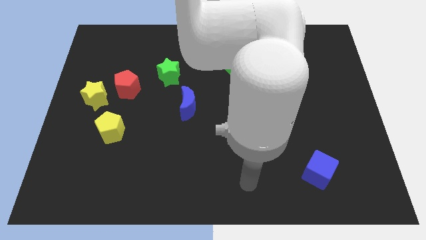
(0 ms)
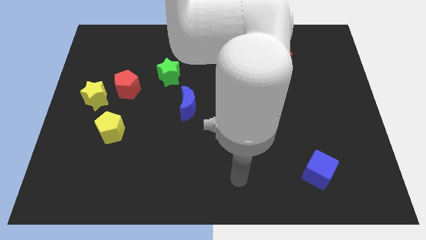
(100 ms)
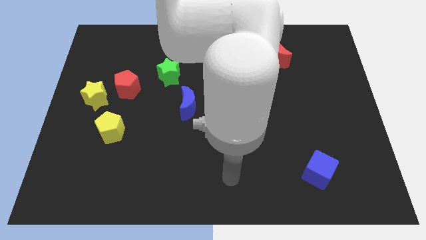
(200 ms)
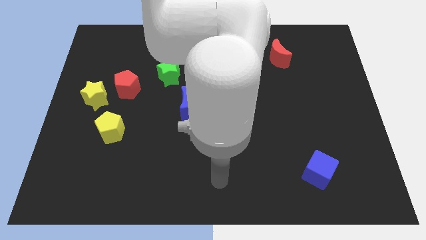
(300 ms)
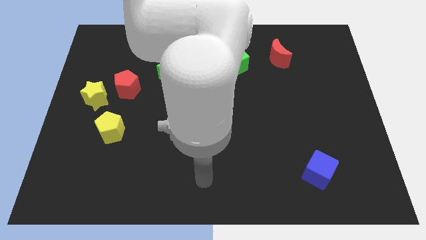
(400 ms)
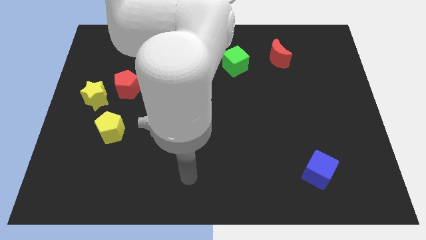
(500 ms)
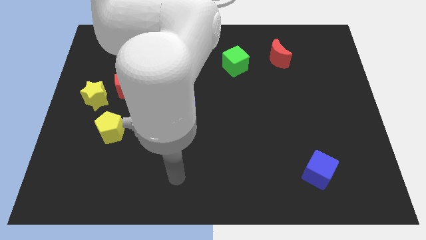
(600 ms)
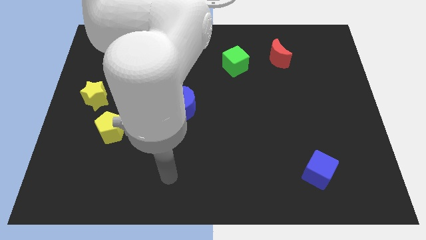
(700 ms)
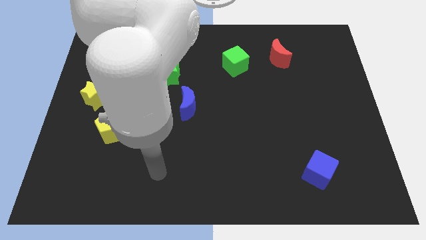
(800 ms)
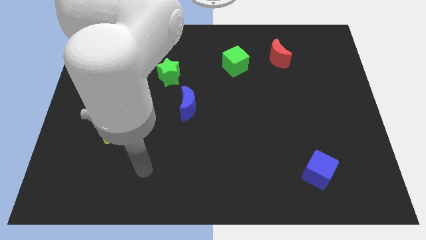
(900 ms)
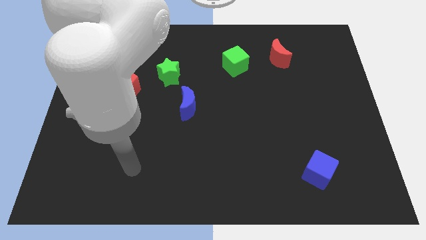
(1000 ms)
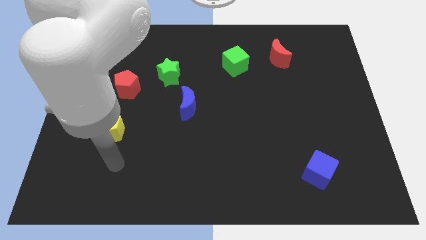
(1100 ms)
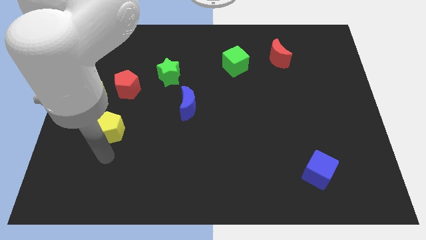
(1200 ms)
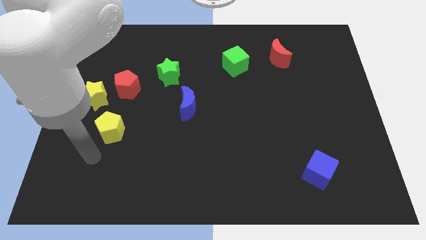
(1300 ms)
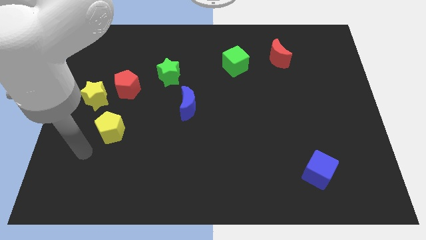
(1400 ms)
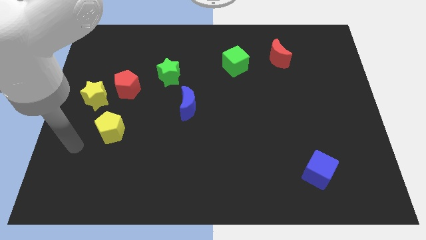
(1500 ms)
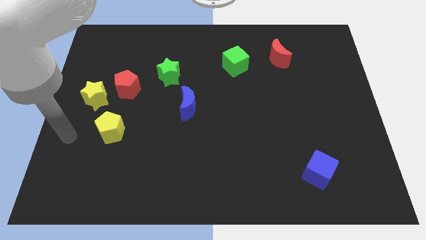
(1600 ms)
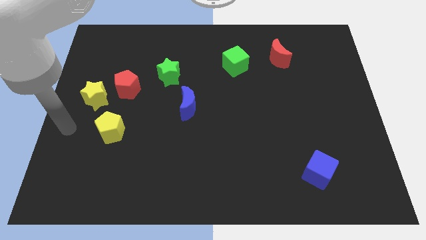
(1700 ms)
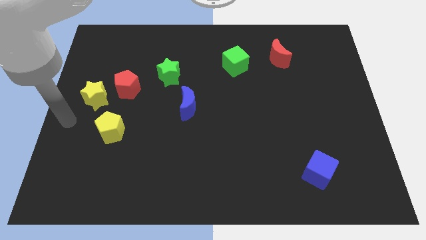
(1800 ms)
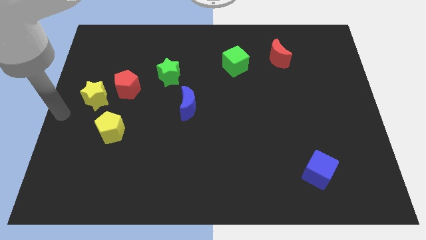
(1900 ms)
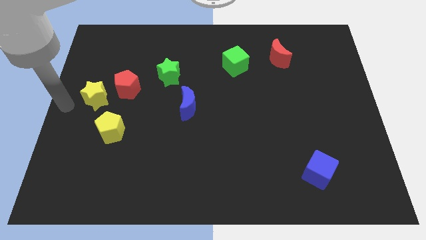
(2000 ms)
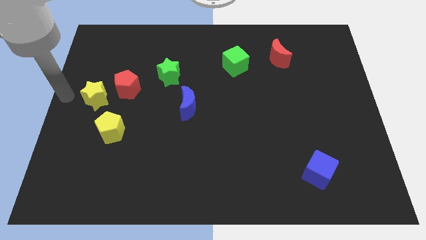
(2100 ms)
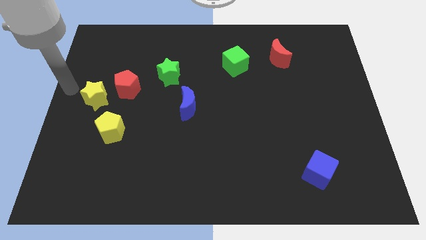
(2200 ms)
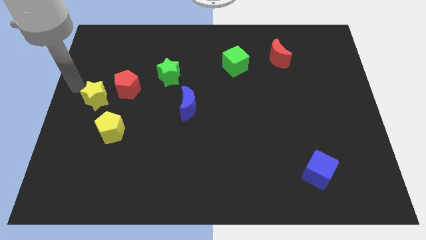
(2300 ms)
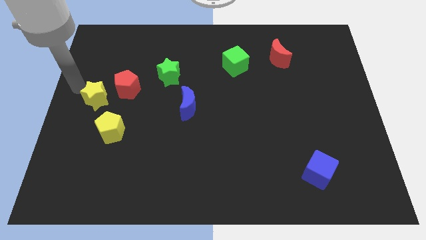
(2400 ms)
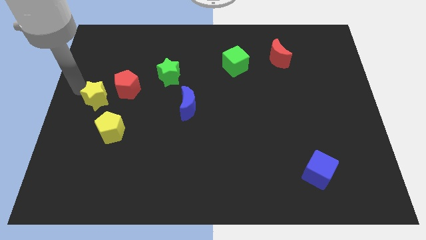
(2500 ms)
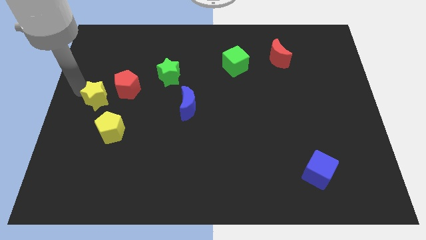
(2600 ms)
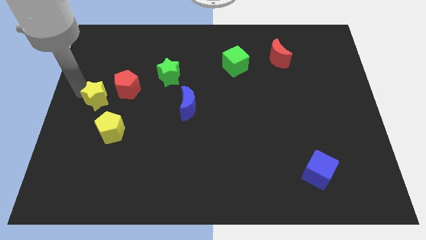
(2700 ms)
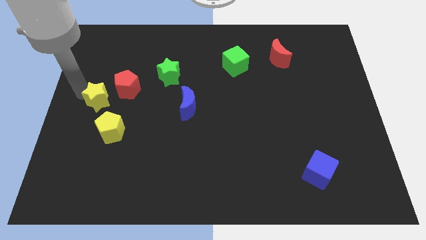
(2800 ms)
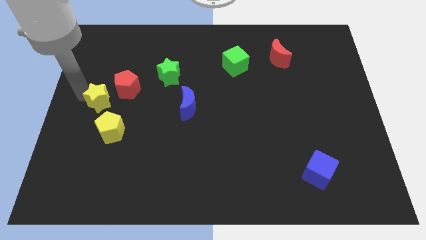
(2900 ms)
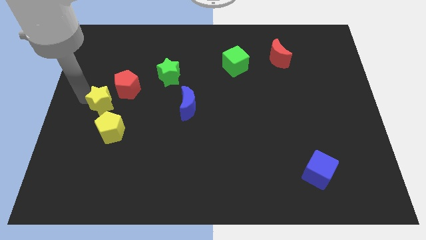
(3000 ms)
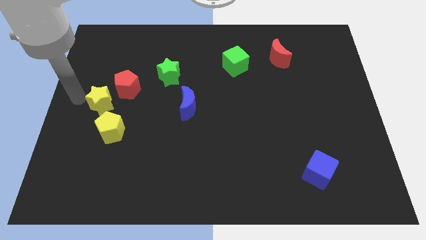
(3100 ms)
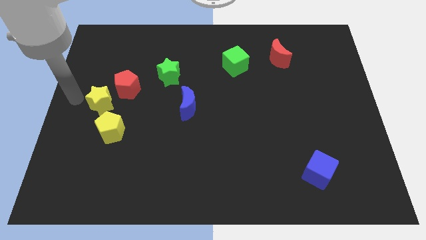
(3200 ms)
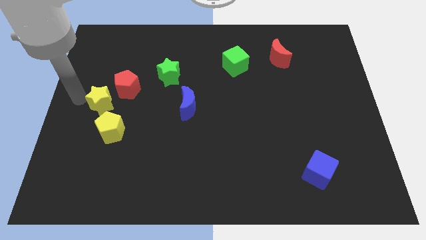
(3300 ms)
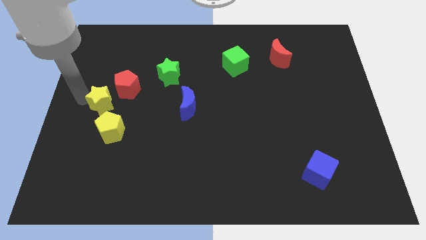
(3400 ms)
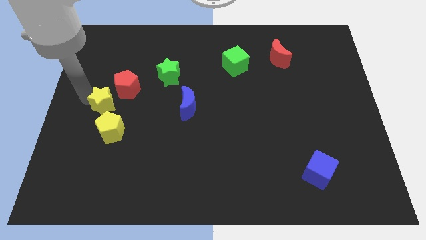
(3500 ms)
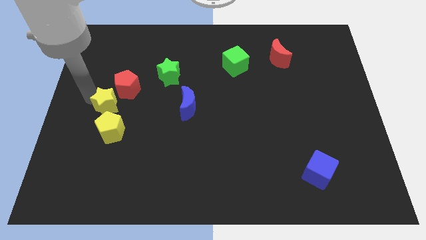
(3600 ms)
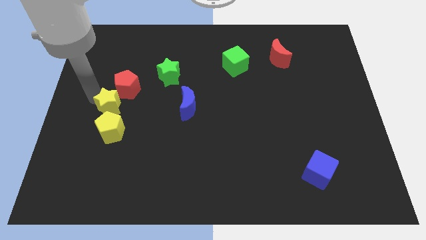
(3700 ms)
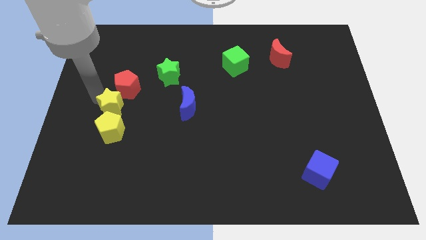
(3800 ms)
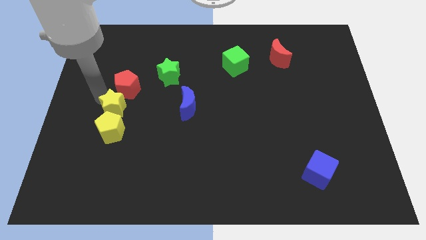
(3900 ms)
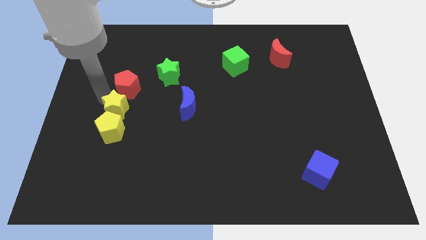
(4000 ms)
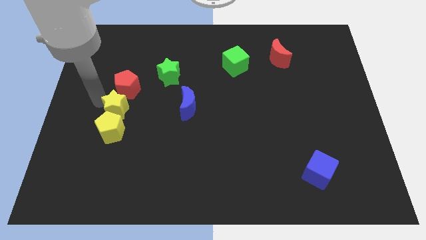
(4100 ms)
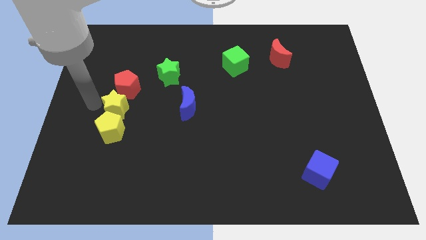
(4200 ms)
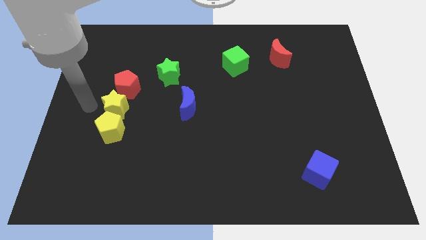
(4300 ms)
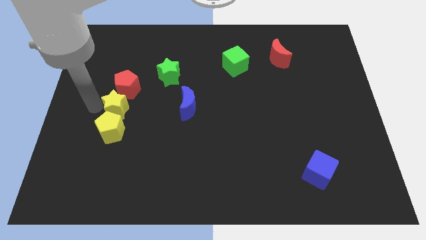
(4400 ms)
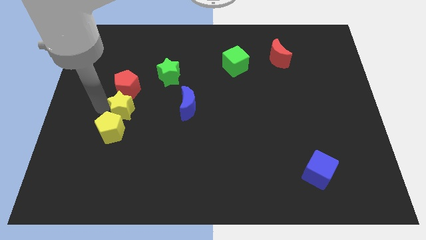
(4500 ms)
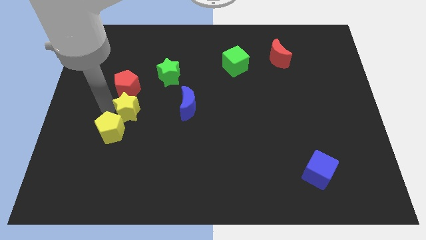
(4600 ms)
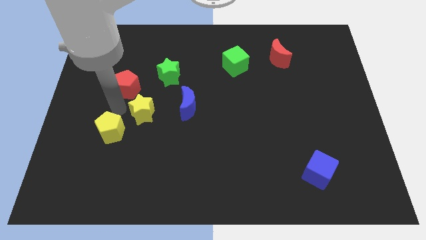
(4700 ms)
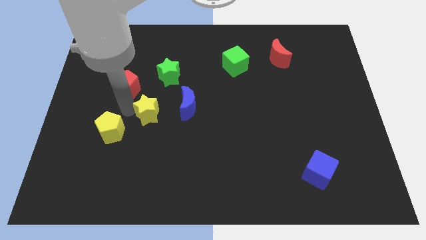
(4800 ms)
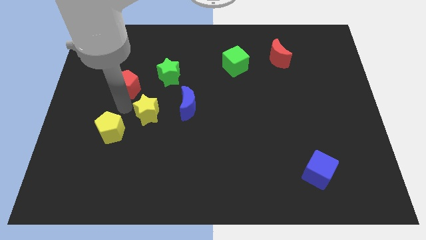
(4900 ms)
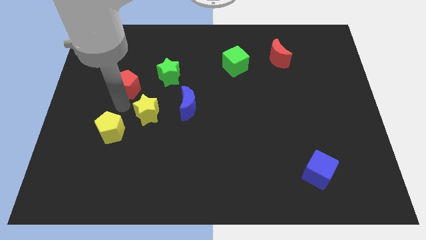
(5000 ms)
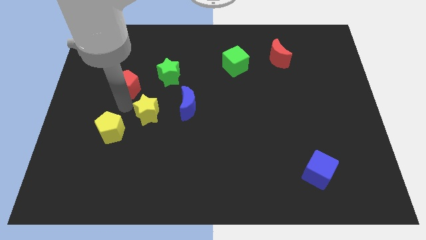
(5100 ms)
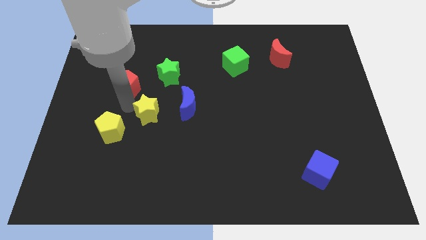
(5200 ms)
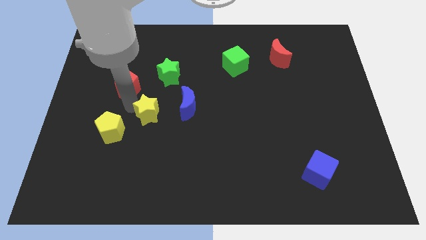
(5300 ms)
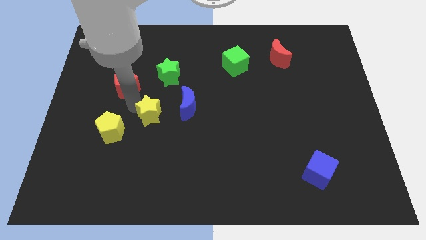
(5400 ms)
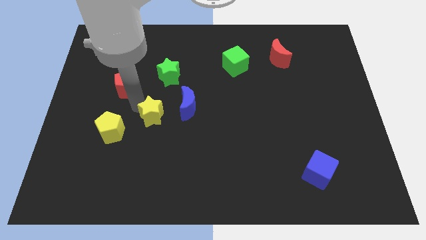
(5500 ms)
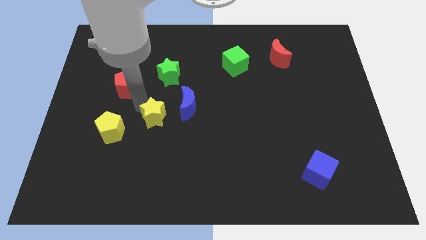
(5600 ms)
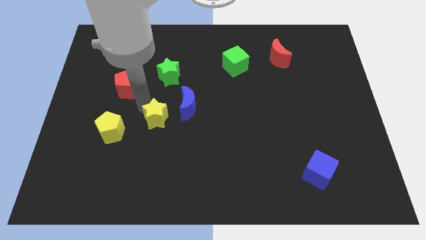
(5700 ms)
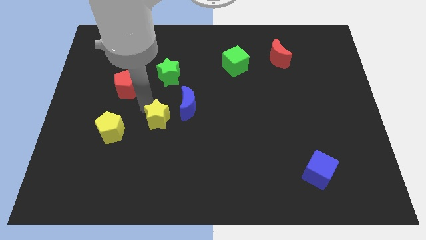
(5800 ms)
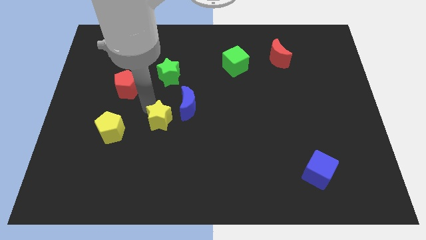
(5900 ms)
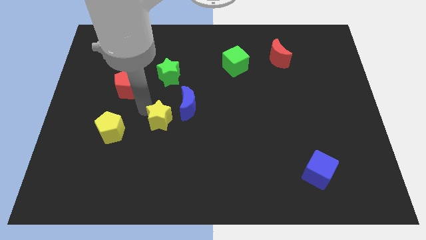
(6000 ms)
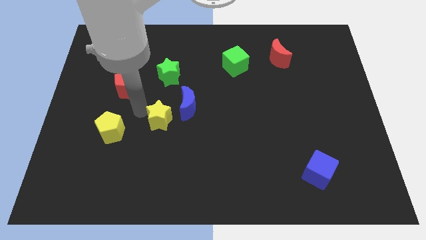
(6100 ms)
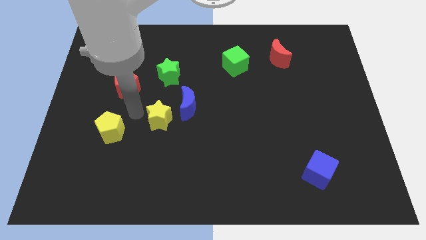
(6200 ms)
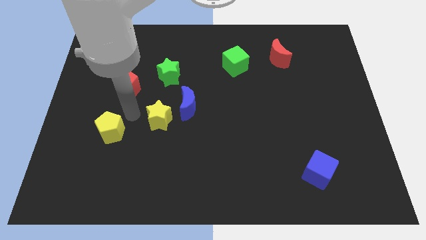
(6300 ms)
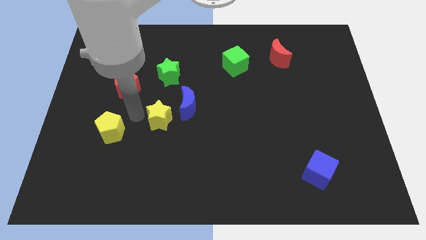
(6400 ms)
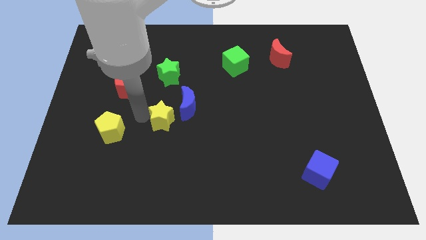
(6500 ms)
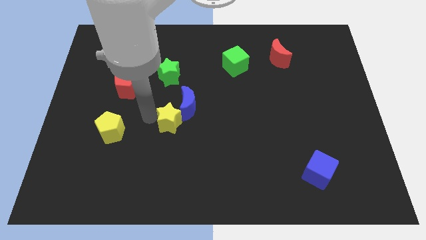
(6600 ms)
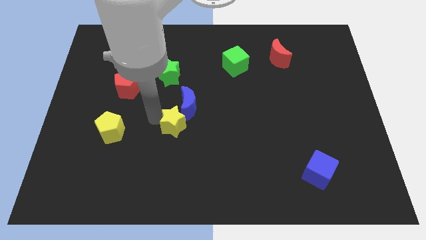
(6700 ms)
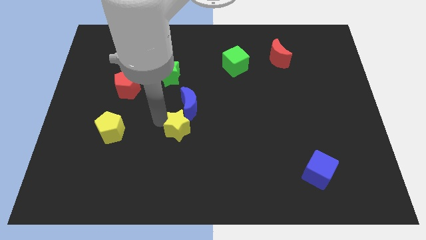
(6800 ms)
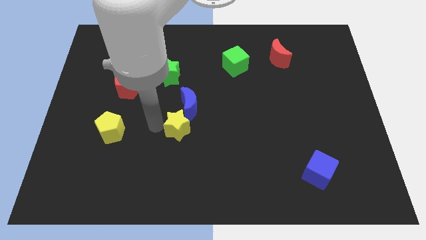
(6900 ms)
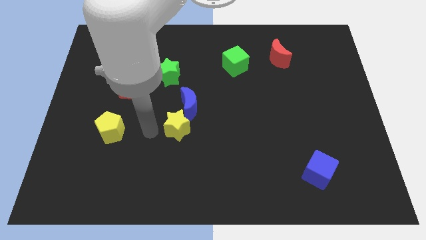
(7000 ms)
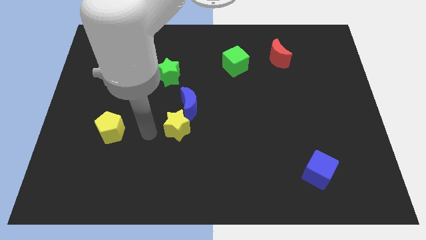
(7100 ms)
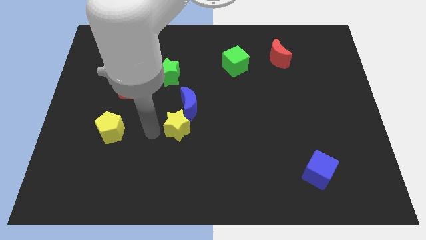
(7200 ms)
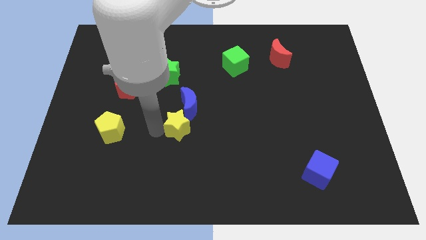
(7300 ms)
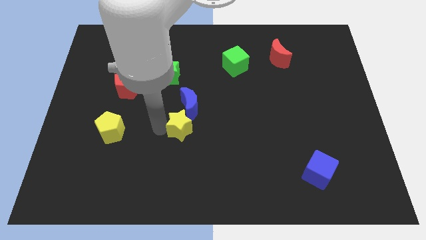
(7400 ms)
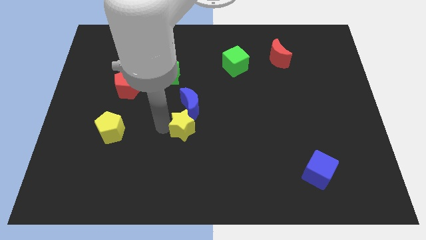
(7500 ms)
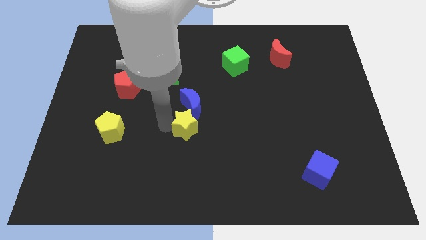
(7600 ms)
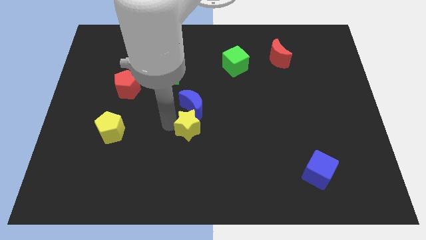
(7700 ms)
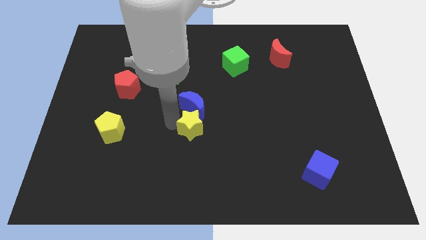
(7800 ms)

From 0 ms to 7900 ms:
push the yellow star to the right

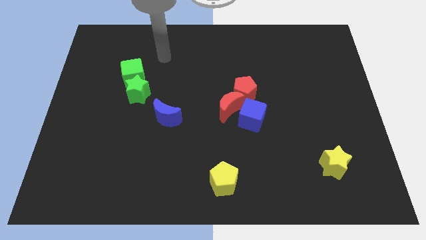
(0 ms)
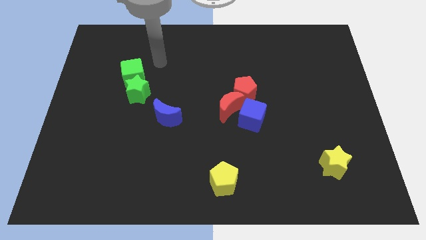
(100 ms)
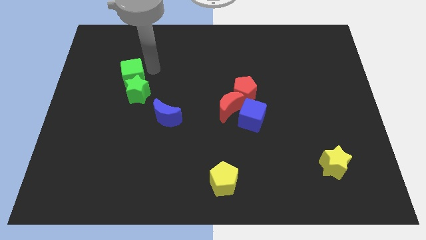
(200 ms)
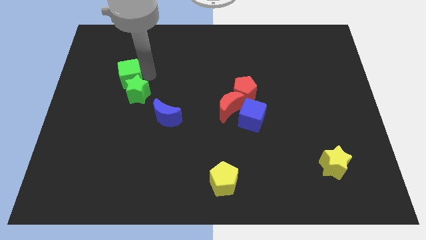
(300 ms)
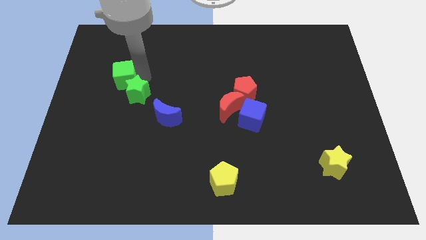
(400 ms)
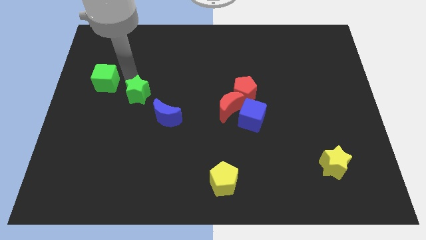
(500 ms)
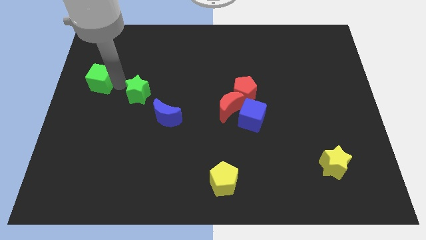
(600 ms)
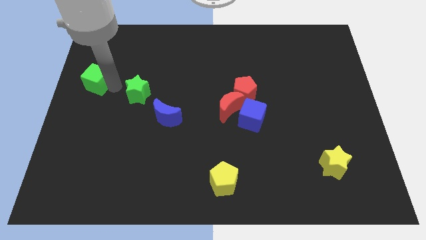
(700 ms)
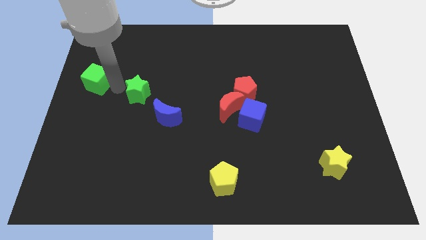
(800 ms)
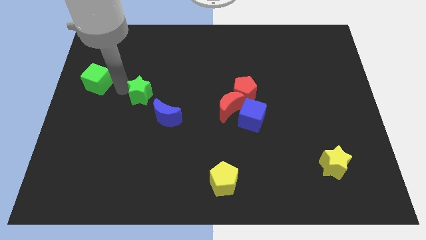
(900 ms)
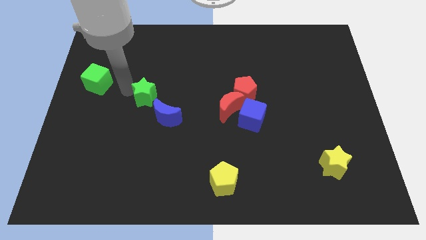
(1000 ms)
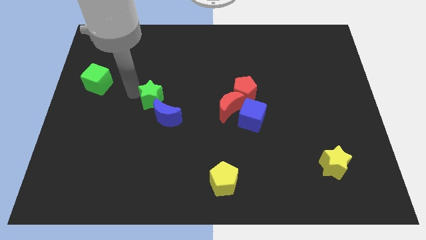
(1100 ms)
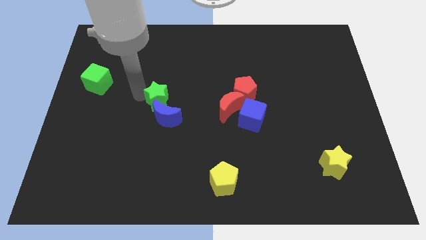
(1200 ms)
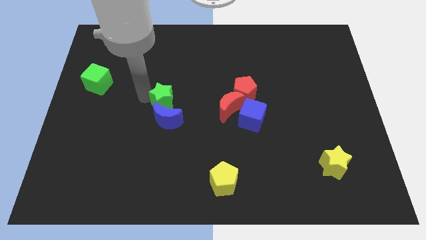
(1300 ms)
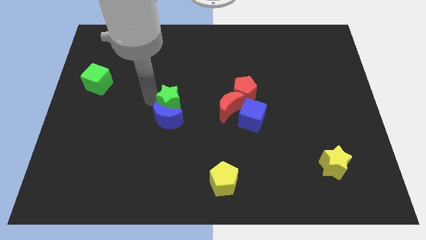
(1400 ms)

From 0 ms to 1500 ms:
move the green star right a bit
